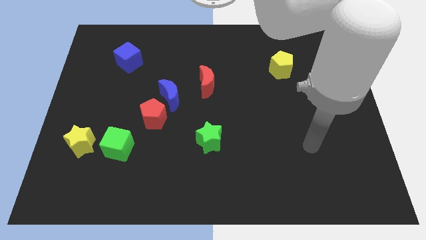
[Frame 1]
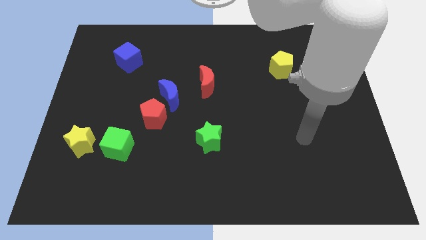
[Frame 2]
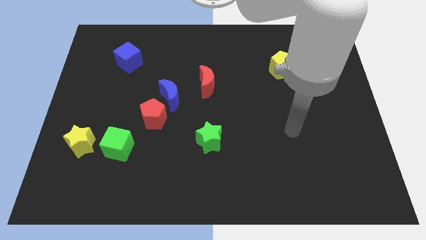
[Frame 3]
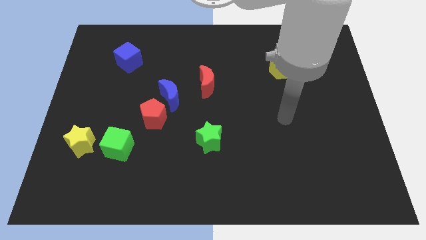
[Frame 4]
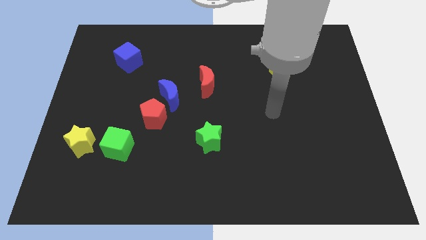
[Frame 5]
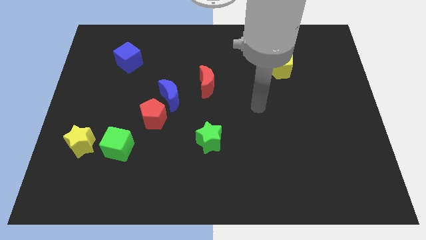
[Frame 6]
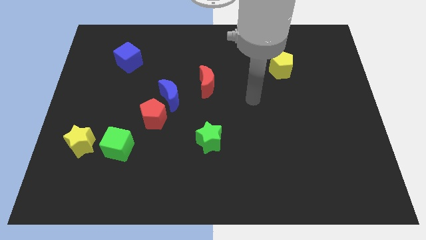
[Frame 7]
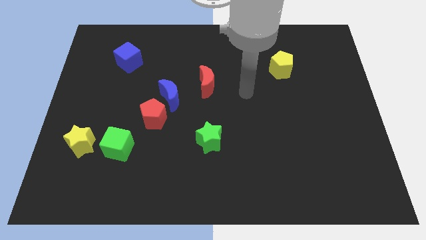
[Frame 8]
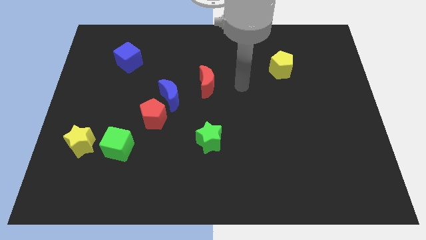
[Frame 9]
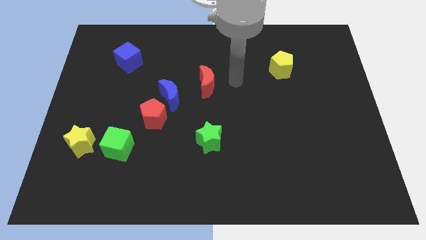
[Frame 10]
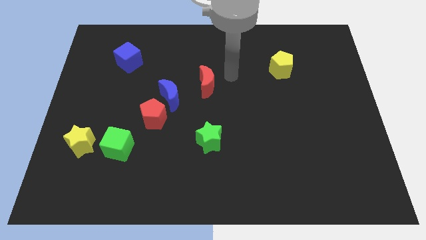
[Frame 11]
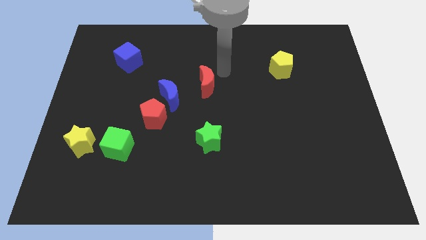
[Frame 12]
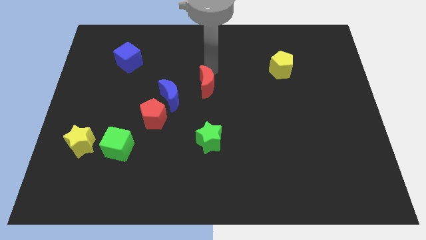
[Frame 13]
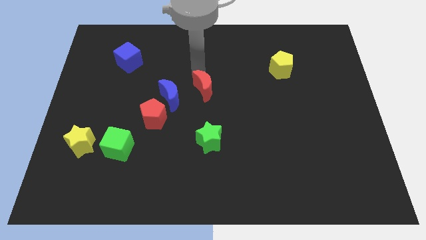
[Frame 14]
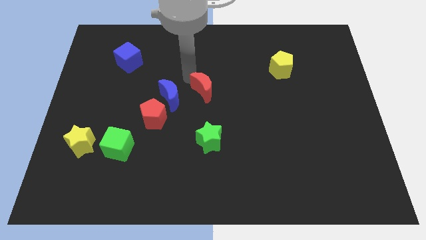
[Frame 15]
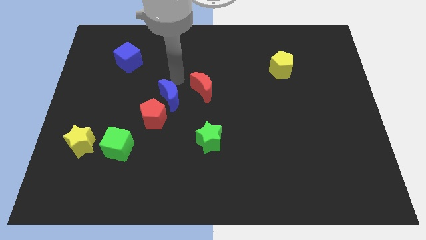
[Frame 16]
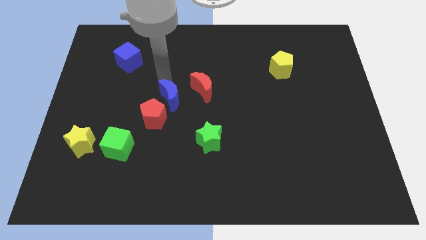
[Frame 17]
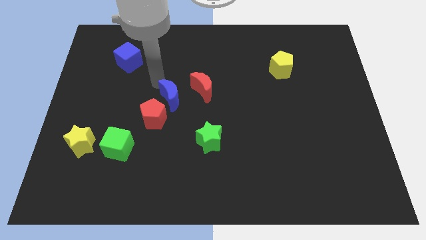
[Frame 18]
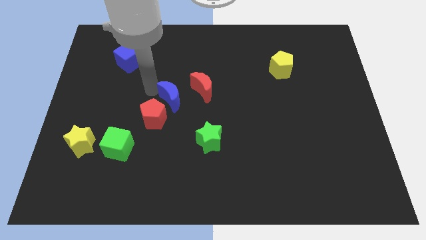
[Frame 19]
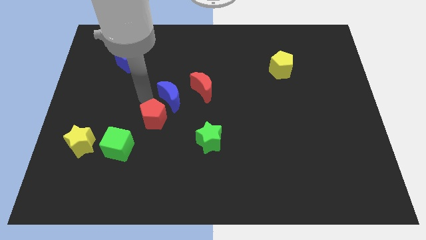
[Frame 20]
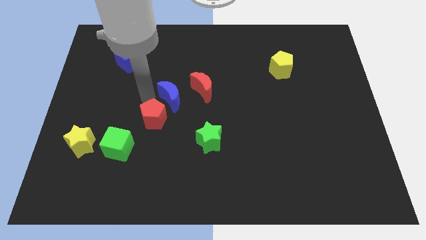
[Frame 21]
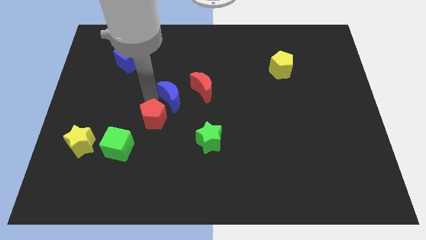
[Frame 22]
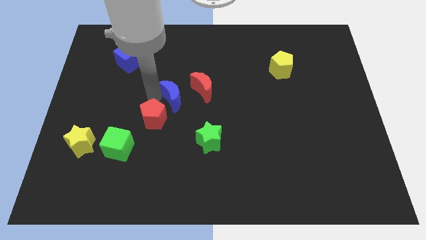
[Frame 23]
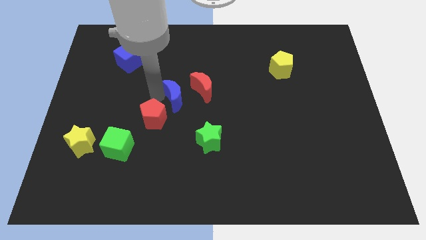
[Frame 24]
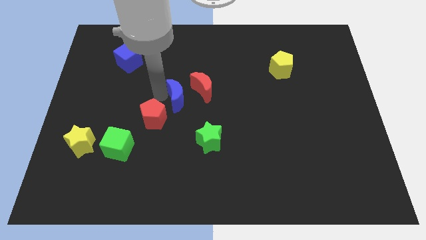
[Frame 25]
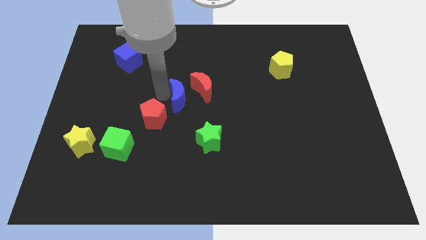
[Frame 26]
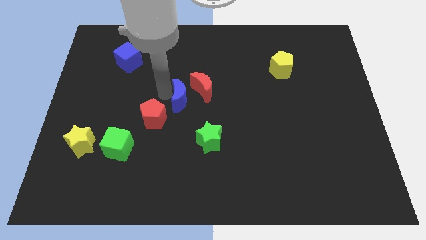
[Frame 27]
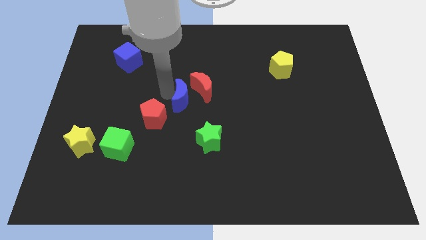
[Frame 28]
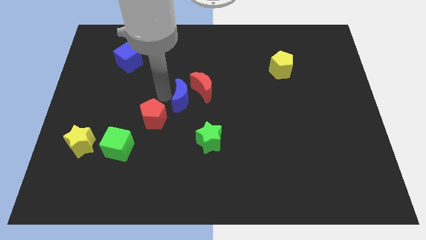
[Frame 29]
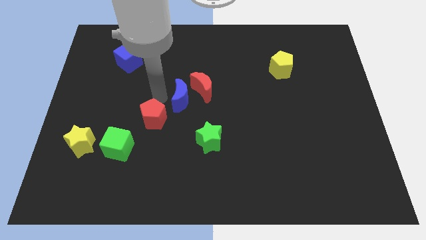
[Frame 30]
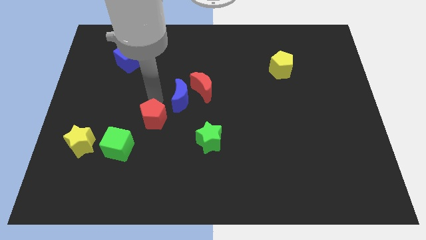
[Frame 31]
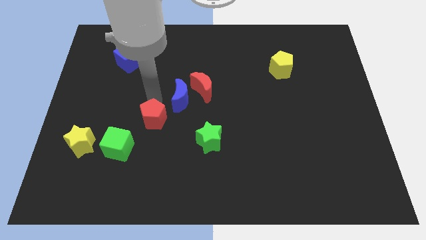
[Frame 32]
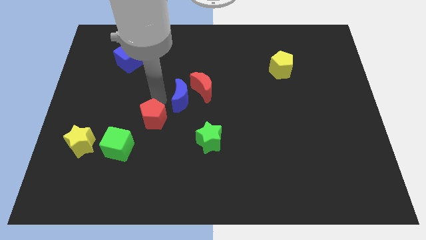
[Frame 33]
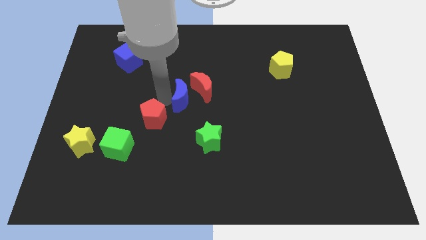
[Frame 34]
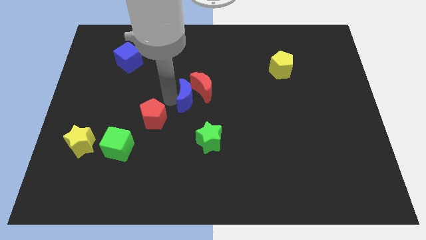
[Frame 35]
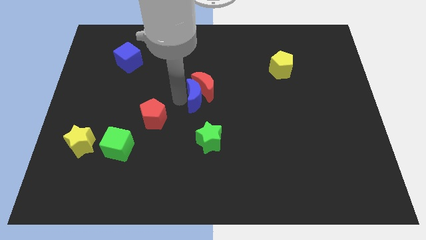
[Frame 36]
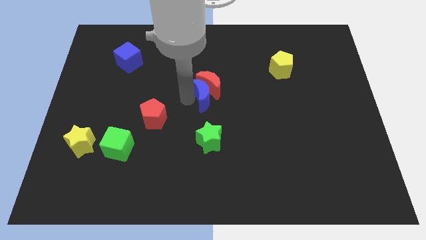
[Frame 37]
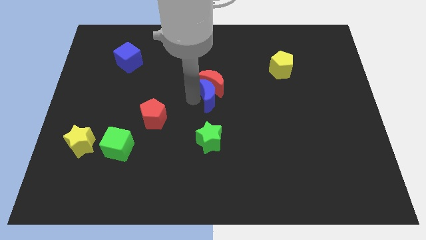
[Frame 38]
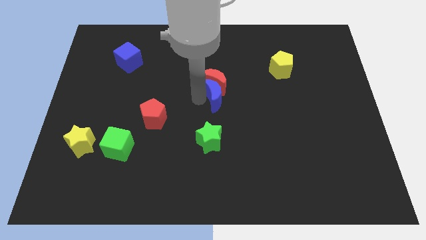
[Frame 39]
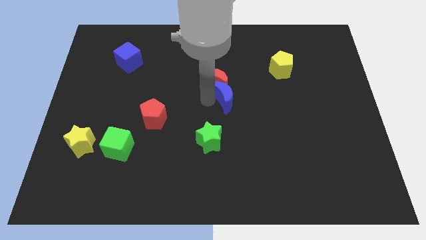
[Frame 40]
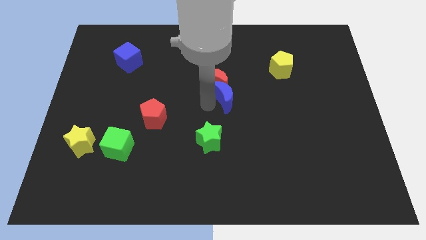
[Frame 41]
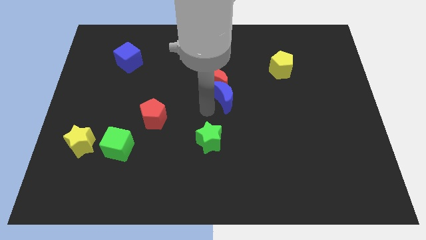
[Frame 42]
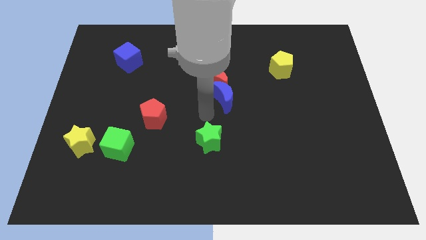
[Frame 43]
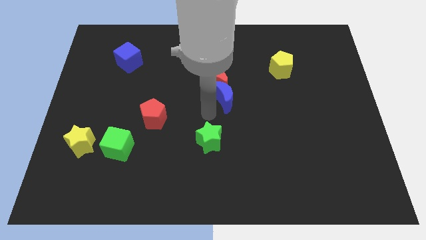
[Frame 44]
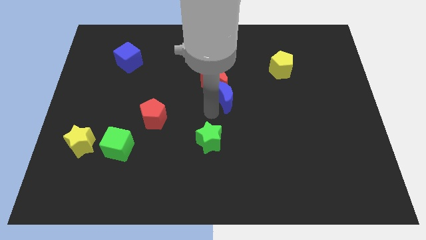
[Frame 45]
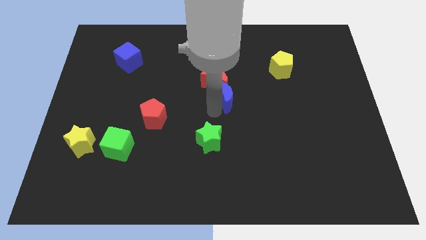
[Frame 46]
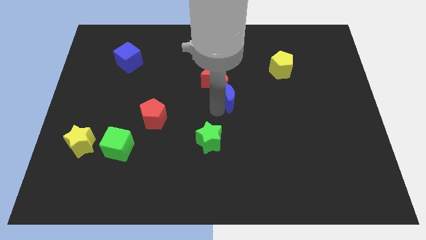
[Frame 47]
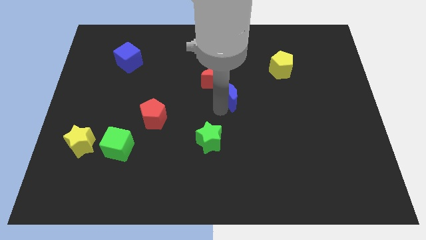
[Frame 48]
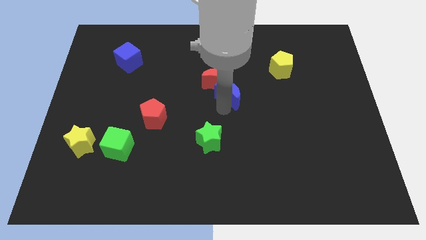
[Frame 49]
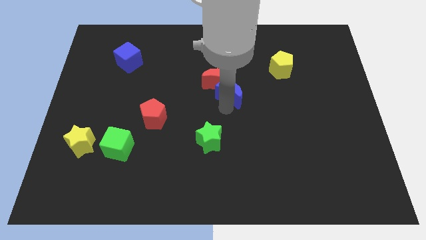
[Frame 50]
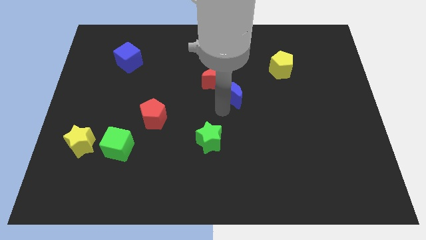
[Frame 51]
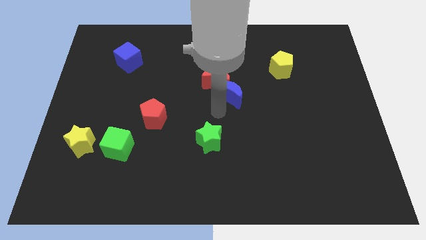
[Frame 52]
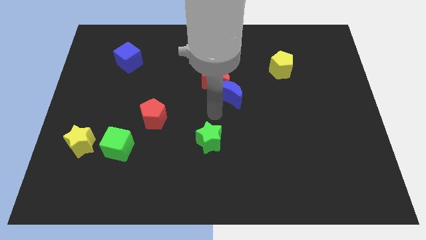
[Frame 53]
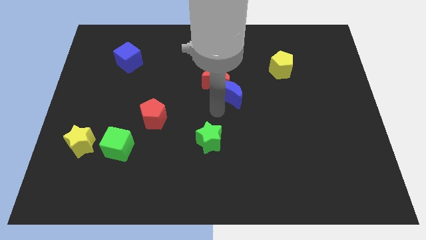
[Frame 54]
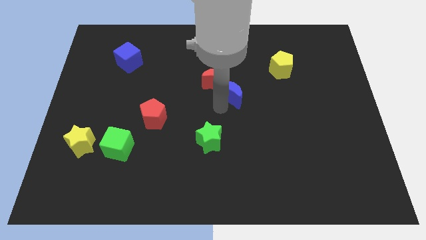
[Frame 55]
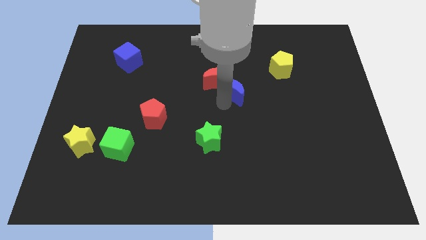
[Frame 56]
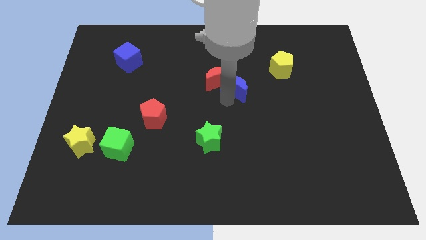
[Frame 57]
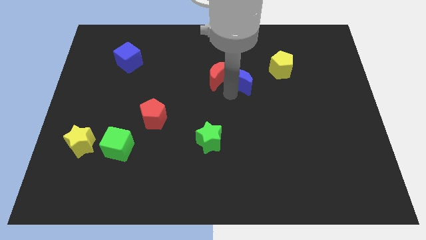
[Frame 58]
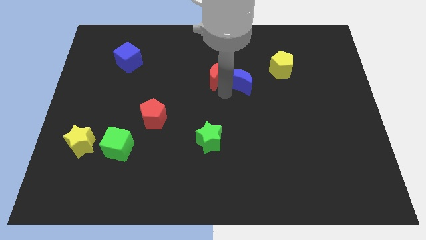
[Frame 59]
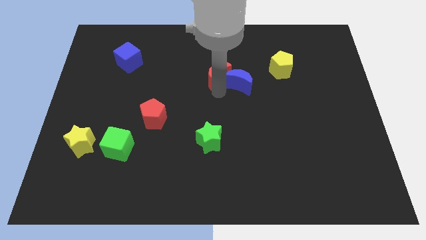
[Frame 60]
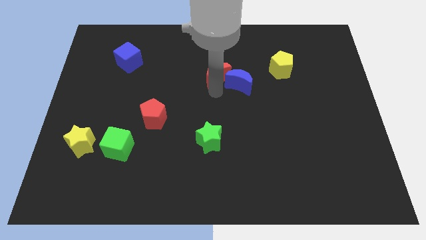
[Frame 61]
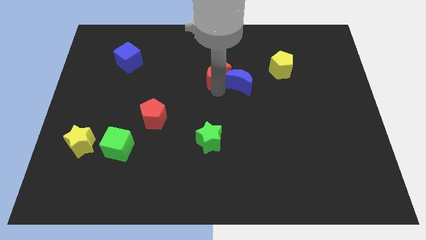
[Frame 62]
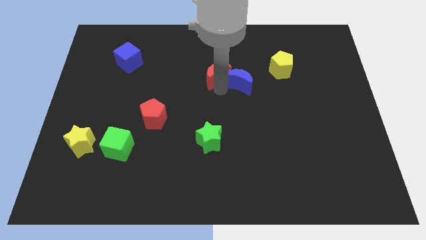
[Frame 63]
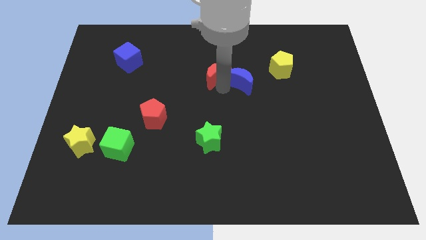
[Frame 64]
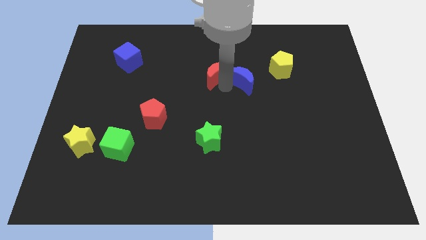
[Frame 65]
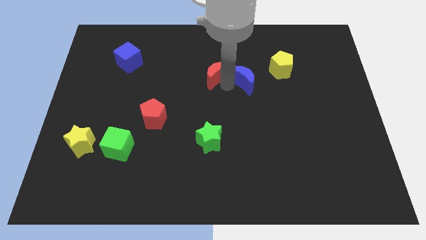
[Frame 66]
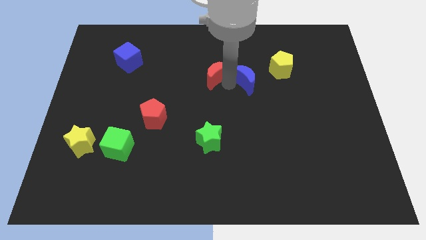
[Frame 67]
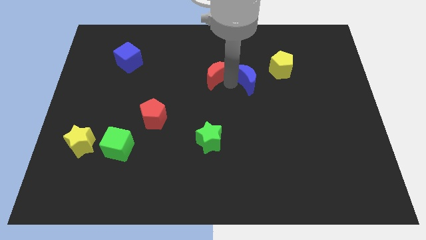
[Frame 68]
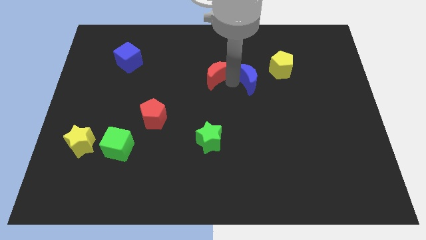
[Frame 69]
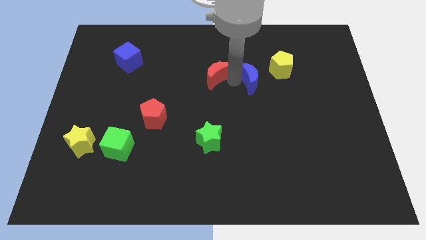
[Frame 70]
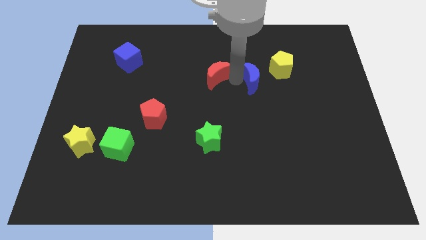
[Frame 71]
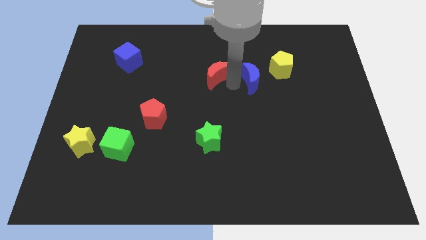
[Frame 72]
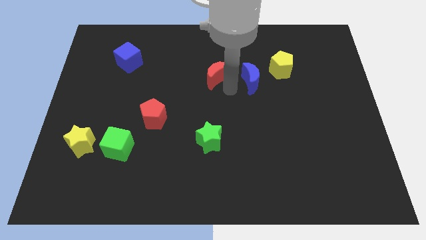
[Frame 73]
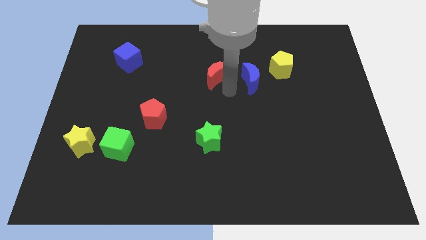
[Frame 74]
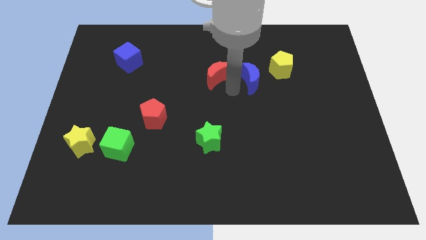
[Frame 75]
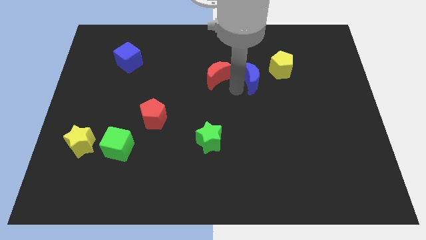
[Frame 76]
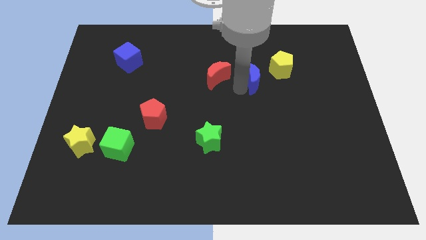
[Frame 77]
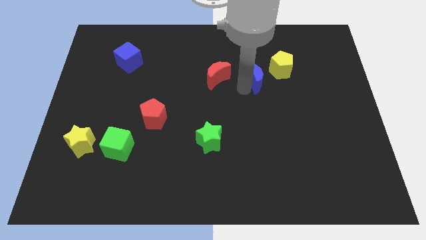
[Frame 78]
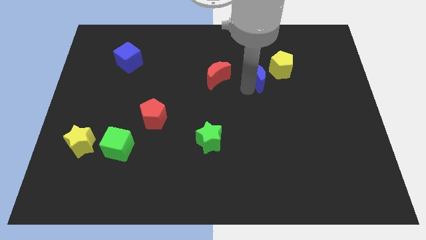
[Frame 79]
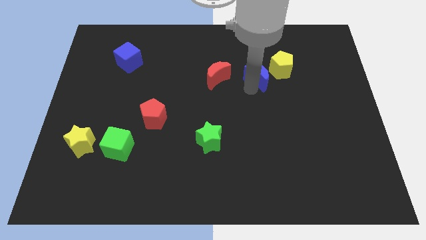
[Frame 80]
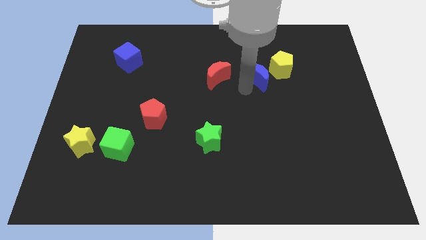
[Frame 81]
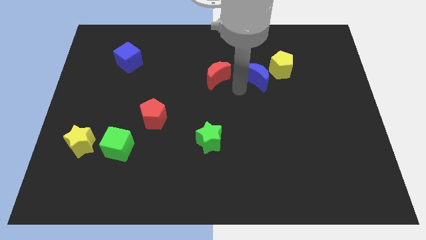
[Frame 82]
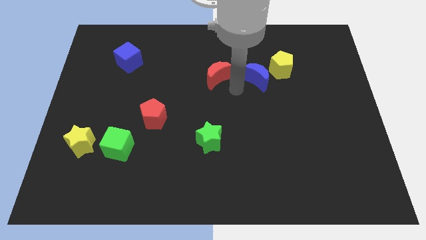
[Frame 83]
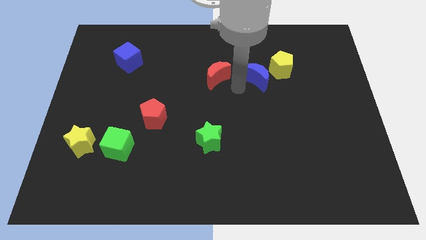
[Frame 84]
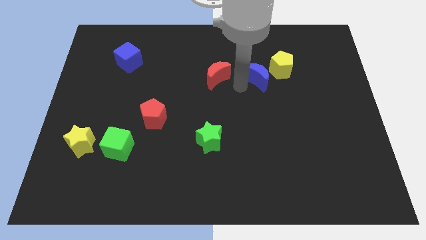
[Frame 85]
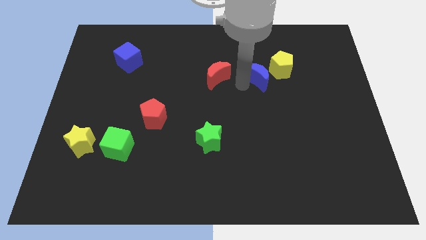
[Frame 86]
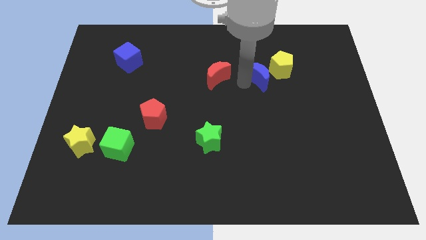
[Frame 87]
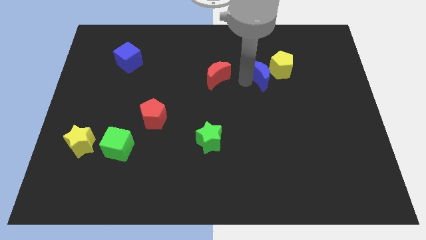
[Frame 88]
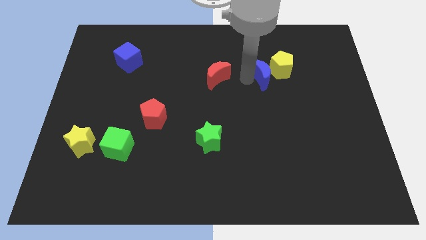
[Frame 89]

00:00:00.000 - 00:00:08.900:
slide the blue moon next to the yellow pentagon
